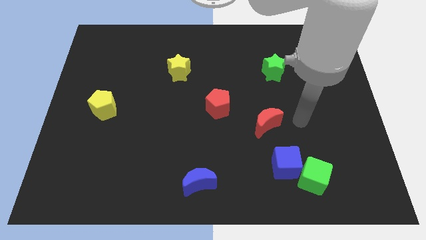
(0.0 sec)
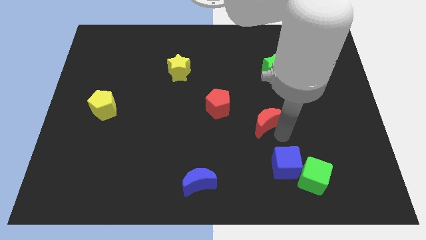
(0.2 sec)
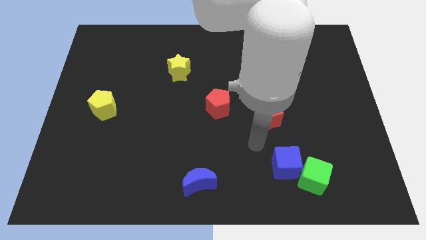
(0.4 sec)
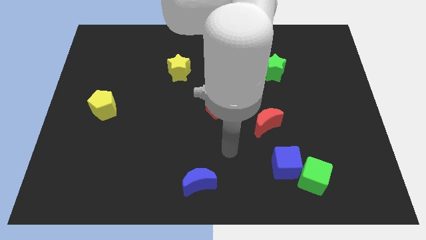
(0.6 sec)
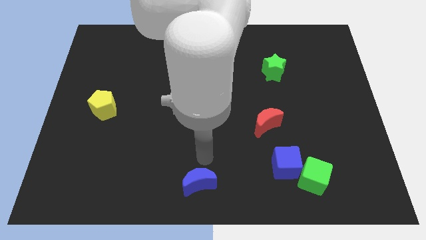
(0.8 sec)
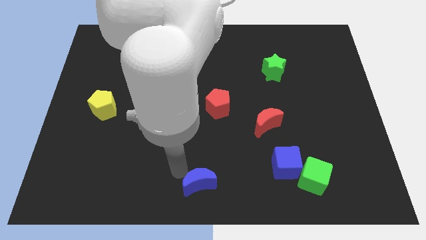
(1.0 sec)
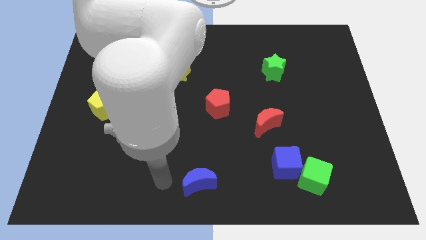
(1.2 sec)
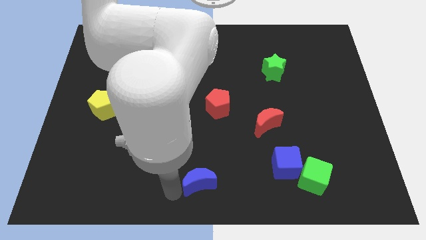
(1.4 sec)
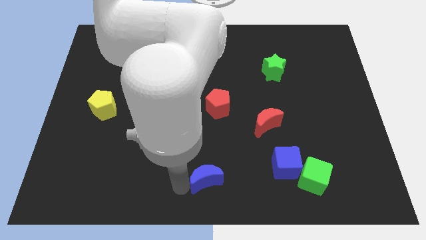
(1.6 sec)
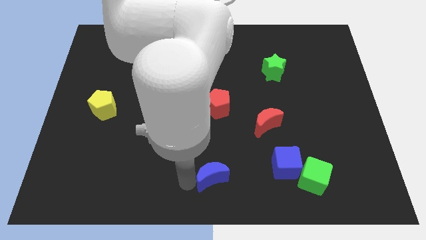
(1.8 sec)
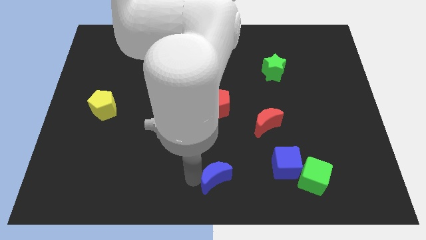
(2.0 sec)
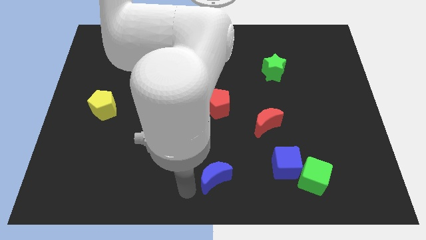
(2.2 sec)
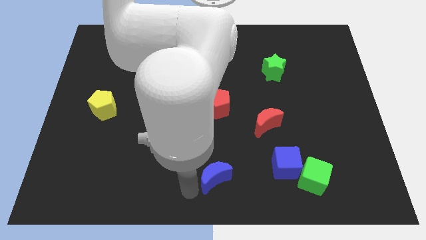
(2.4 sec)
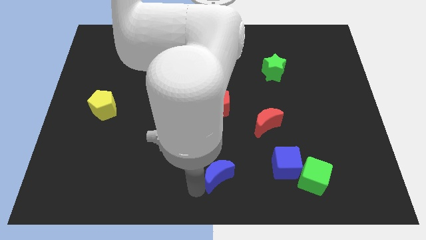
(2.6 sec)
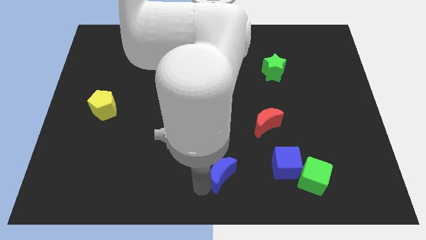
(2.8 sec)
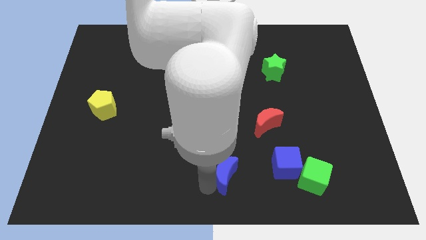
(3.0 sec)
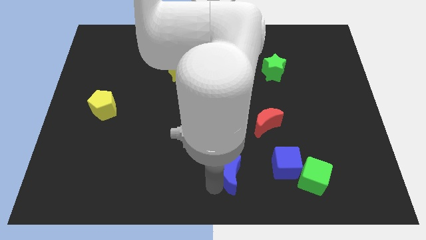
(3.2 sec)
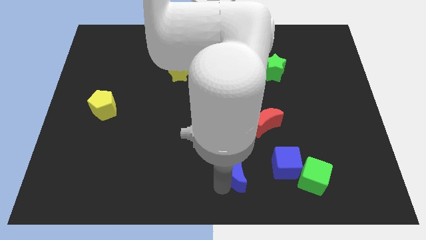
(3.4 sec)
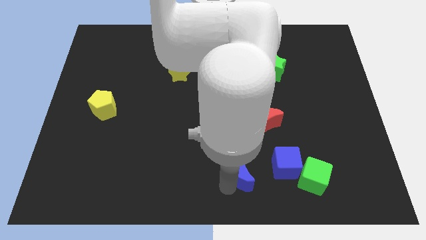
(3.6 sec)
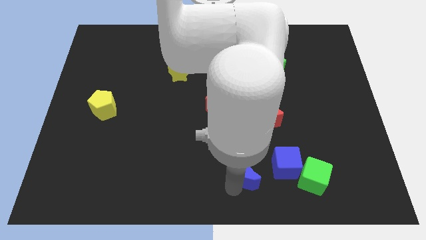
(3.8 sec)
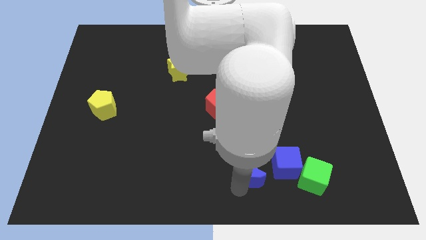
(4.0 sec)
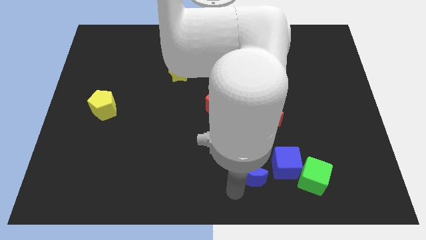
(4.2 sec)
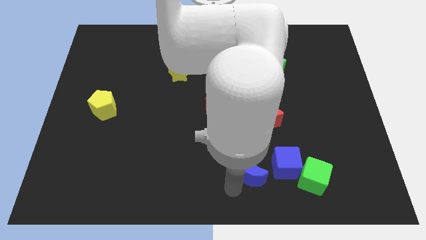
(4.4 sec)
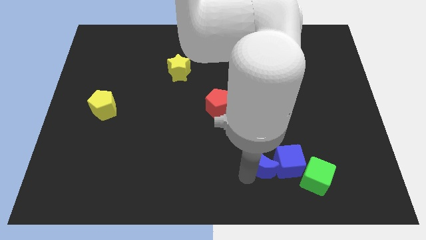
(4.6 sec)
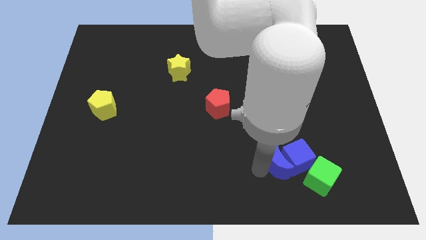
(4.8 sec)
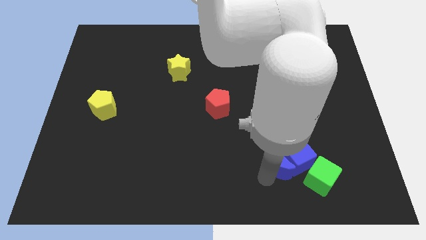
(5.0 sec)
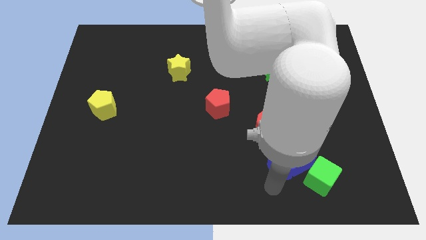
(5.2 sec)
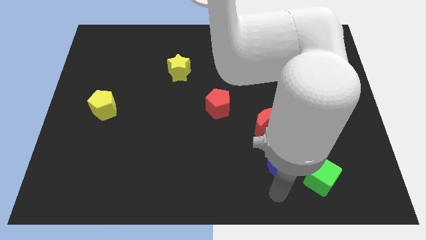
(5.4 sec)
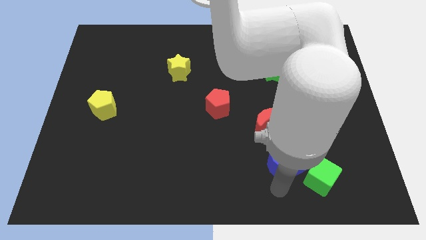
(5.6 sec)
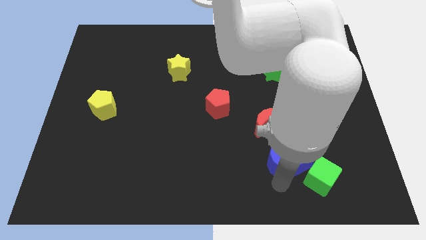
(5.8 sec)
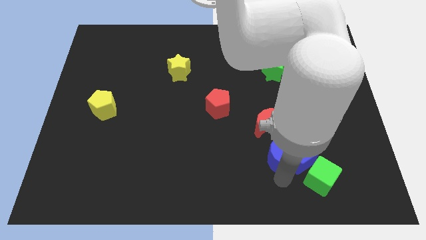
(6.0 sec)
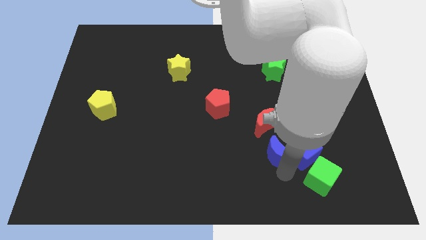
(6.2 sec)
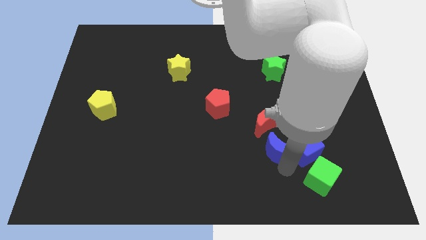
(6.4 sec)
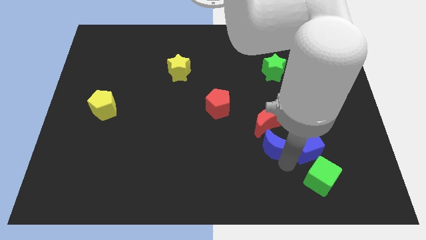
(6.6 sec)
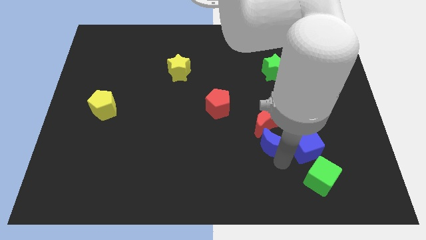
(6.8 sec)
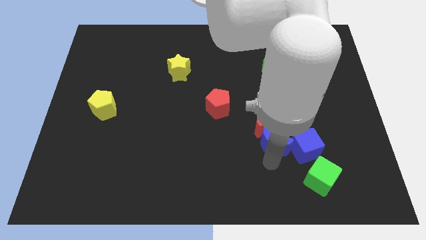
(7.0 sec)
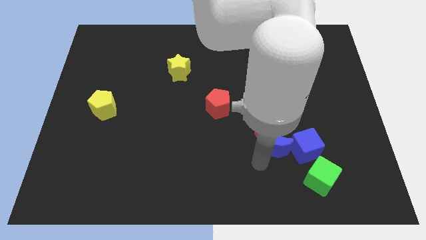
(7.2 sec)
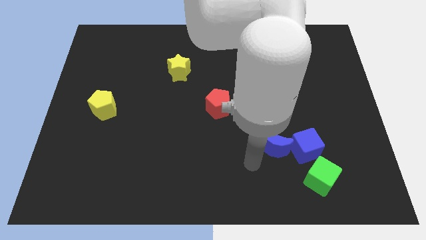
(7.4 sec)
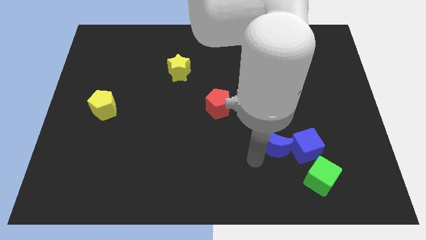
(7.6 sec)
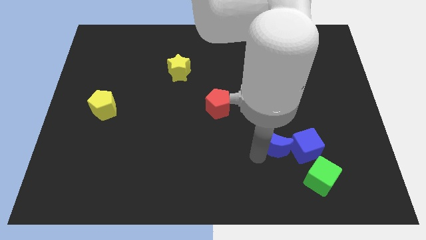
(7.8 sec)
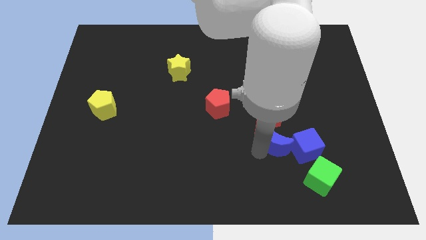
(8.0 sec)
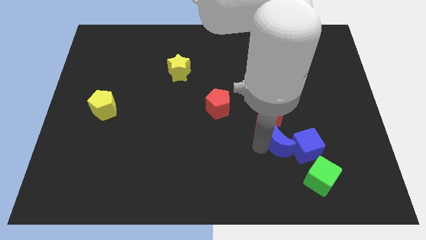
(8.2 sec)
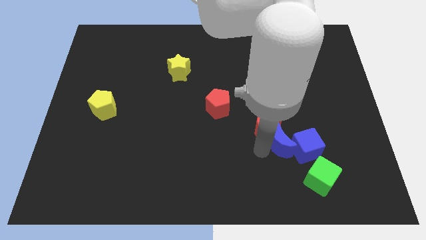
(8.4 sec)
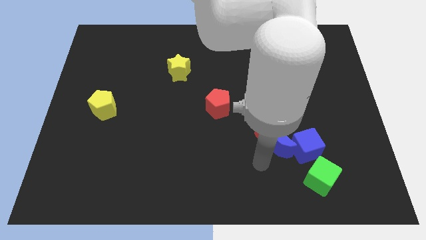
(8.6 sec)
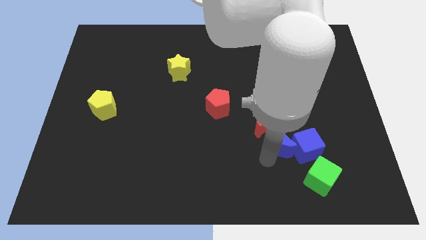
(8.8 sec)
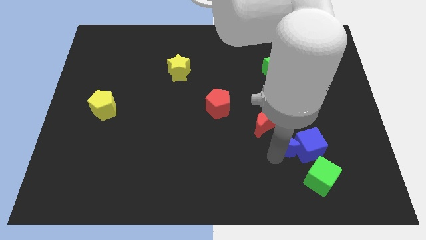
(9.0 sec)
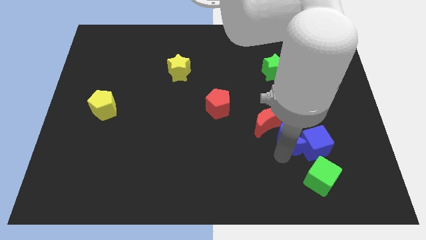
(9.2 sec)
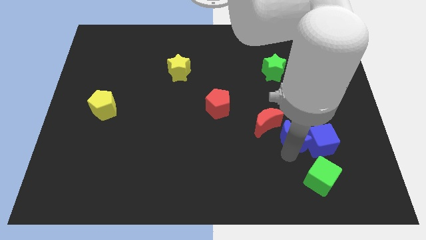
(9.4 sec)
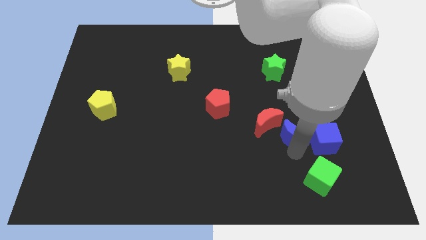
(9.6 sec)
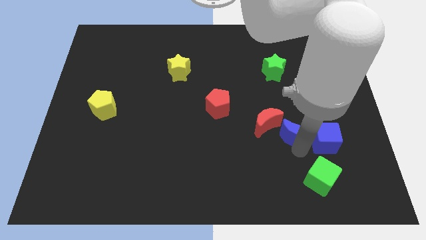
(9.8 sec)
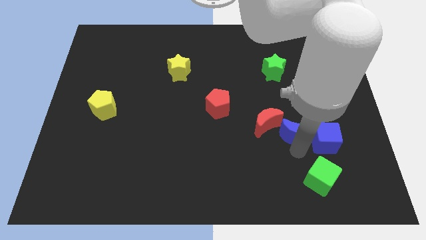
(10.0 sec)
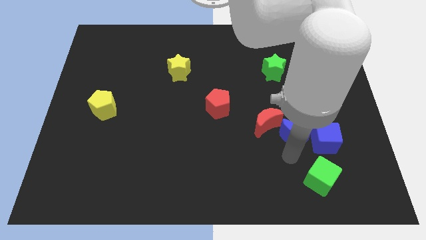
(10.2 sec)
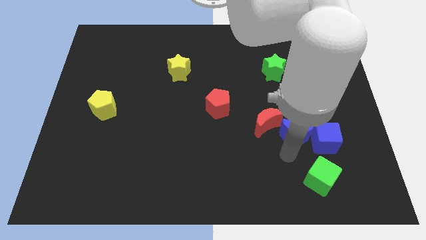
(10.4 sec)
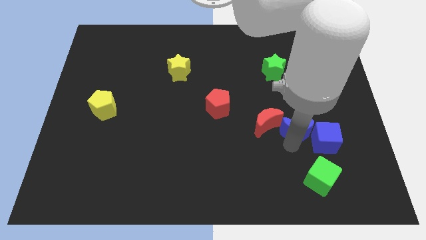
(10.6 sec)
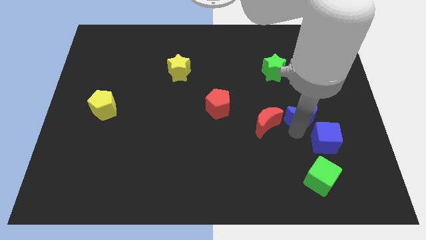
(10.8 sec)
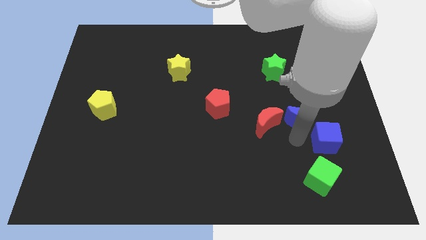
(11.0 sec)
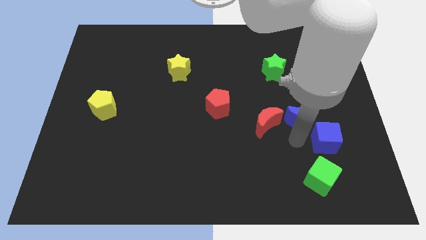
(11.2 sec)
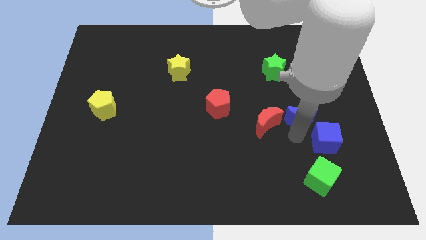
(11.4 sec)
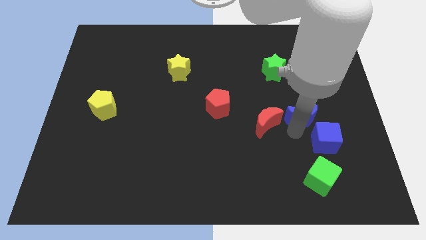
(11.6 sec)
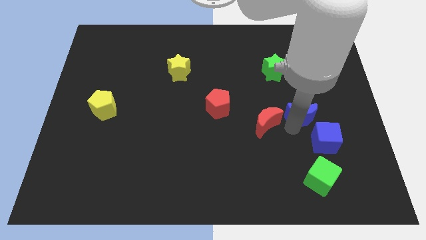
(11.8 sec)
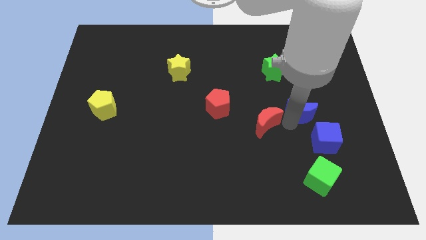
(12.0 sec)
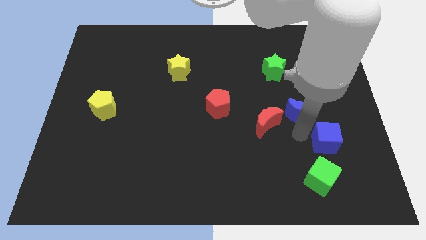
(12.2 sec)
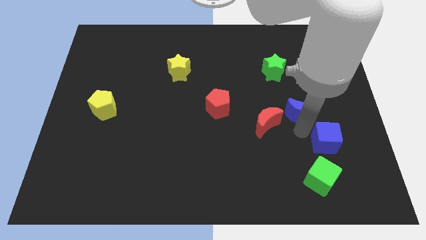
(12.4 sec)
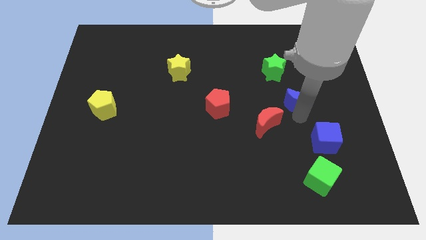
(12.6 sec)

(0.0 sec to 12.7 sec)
move the blue moon diagonally down and to the right of the green star

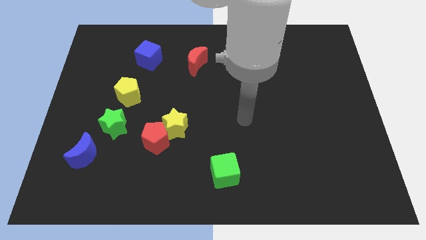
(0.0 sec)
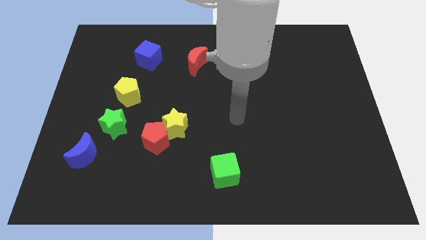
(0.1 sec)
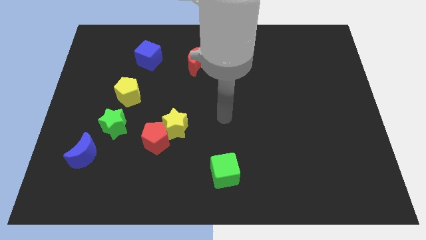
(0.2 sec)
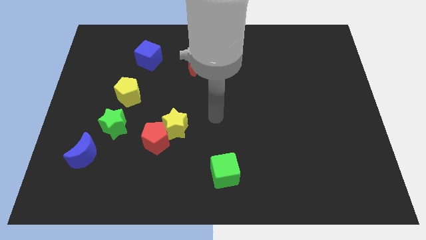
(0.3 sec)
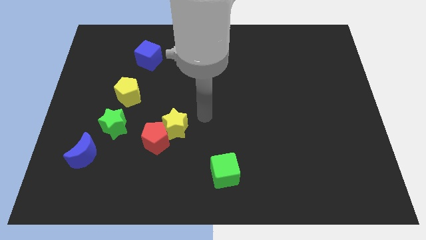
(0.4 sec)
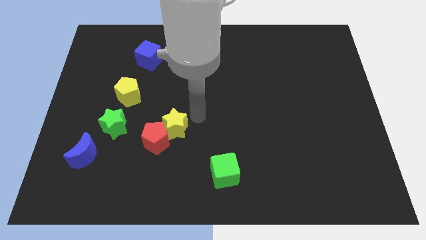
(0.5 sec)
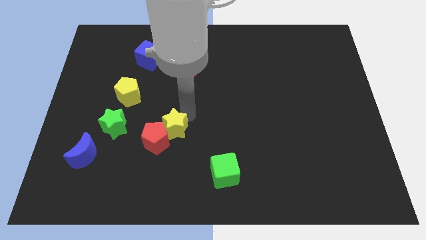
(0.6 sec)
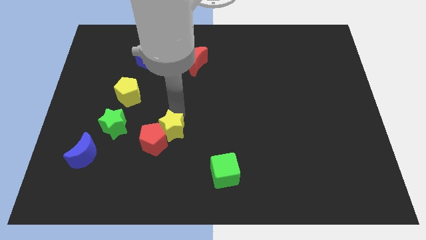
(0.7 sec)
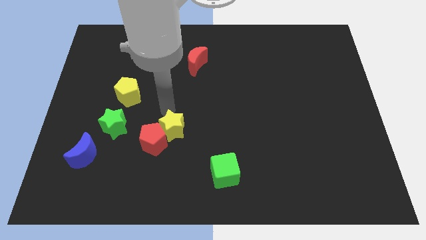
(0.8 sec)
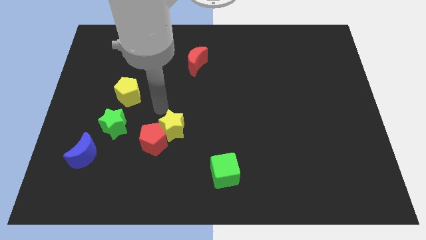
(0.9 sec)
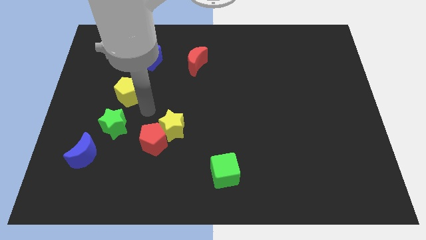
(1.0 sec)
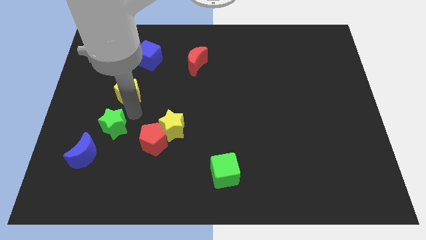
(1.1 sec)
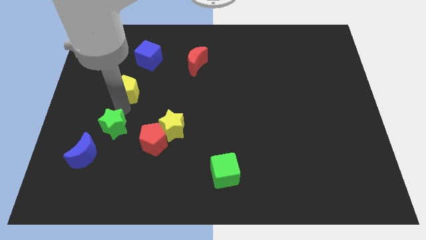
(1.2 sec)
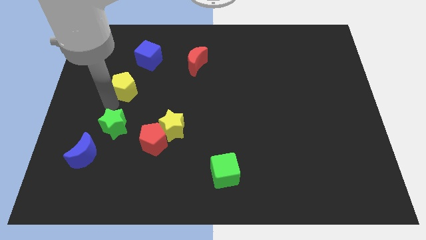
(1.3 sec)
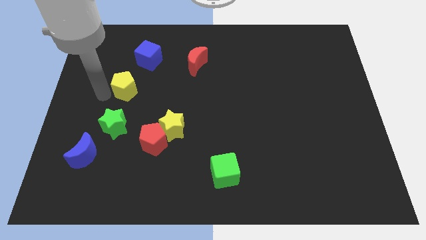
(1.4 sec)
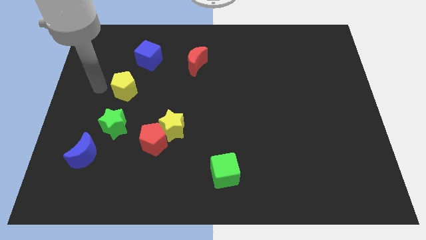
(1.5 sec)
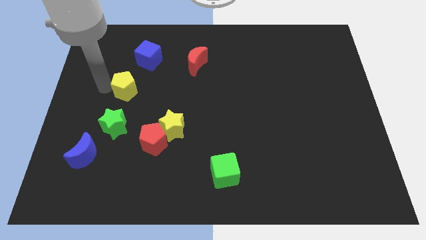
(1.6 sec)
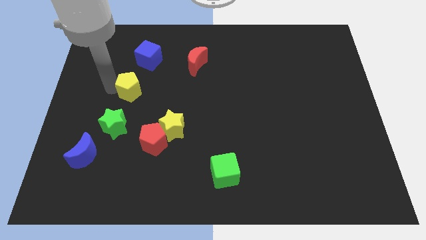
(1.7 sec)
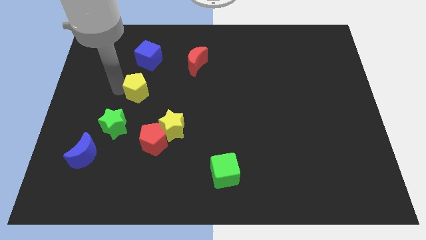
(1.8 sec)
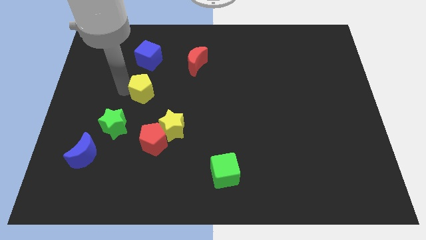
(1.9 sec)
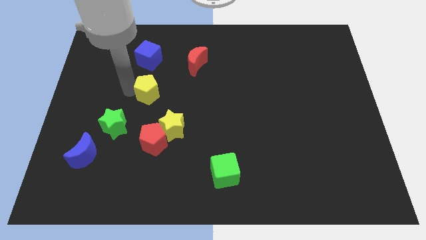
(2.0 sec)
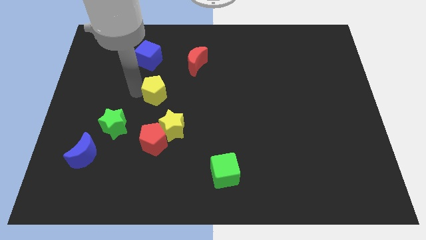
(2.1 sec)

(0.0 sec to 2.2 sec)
push the yellow pentagon to the top side of the yellow star
